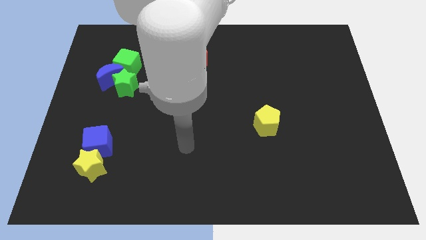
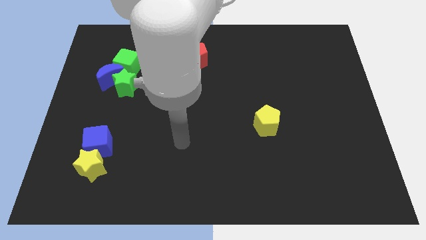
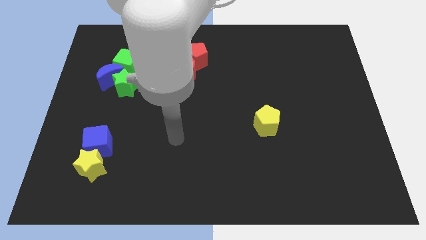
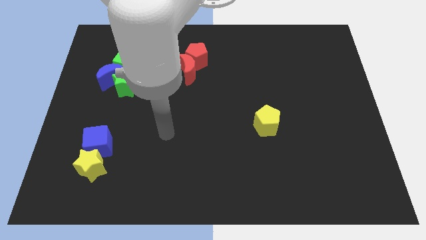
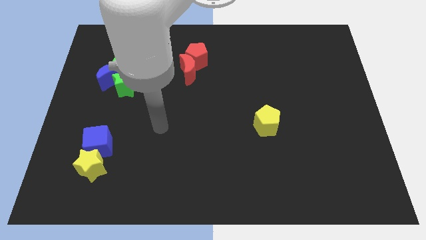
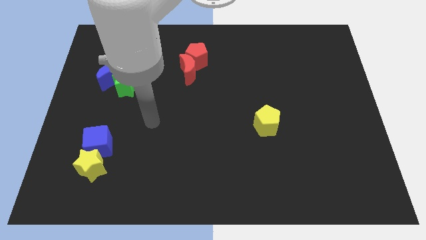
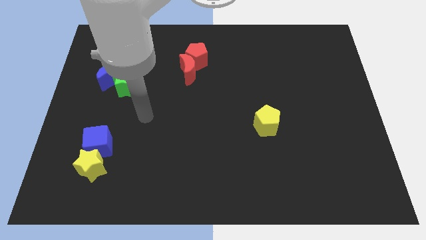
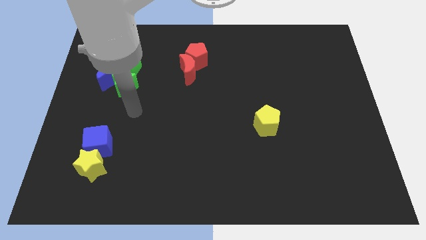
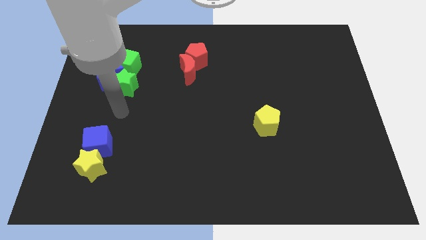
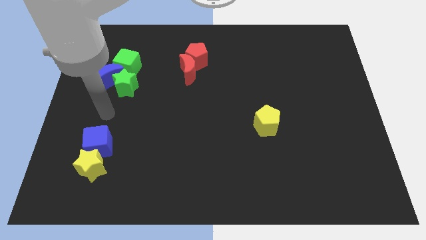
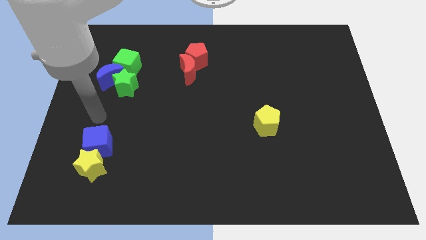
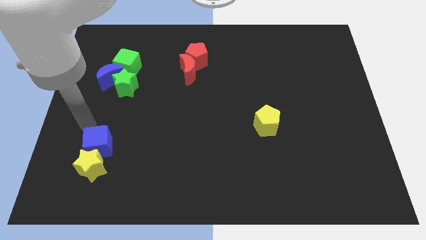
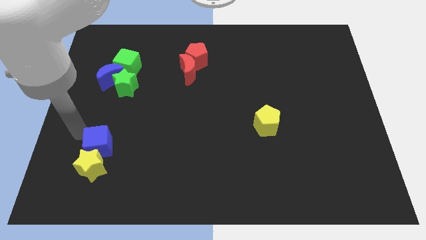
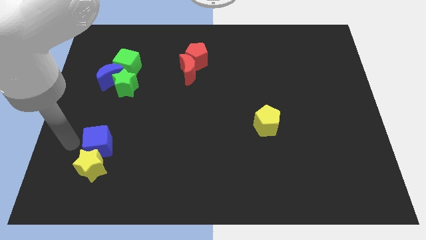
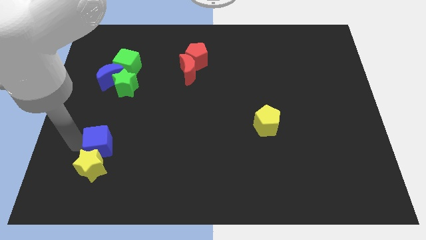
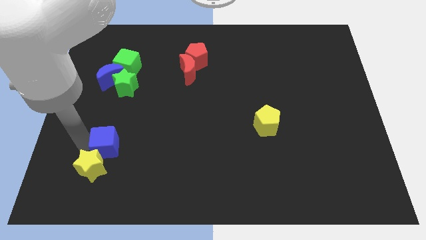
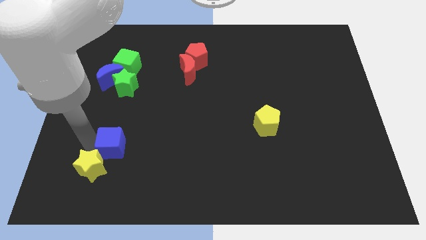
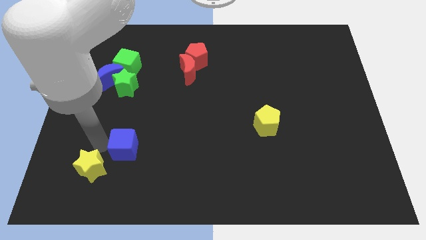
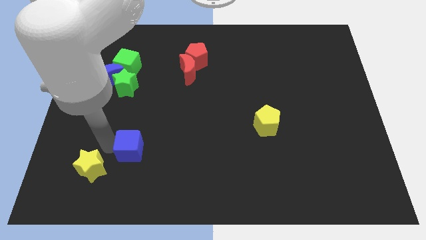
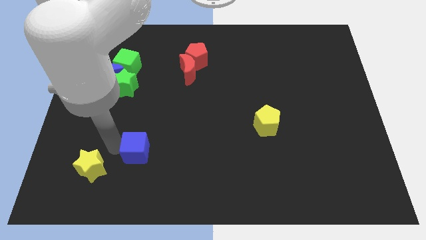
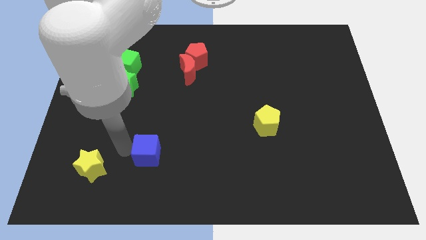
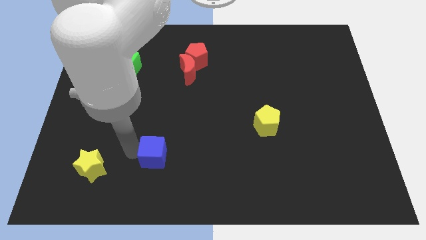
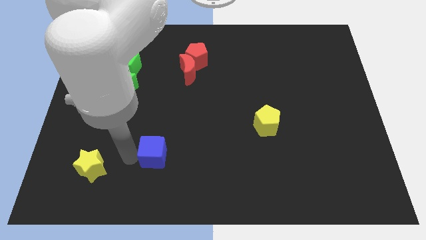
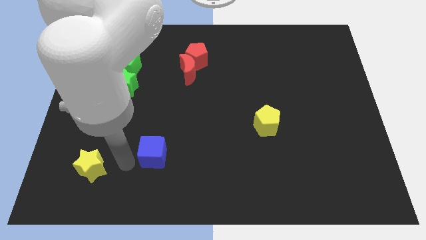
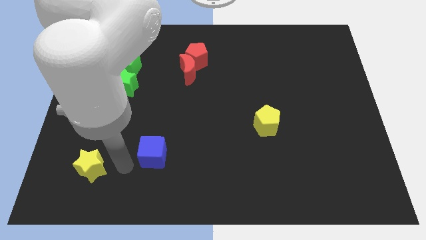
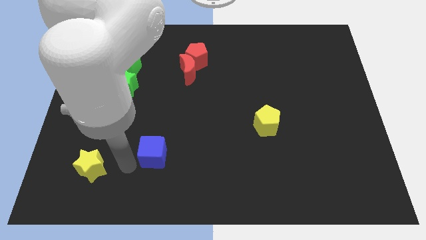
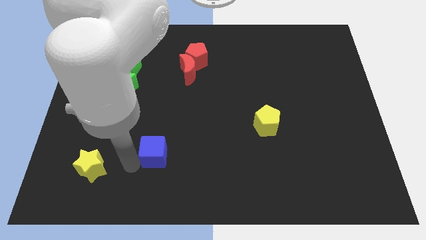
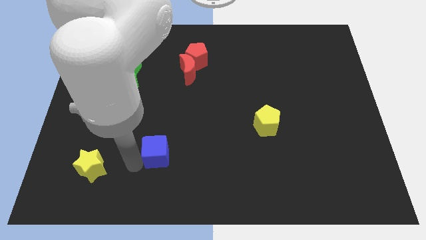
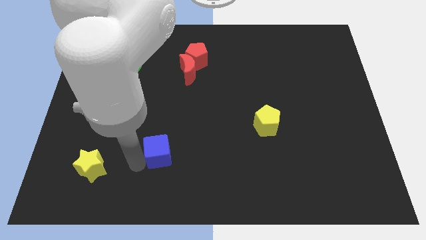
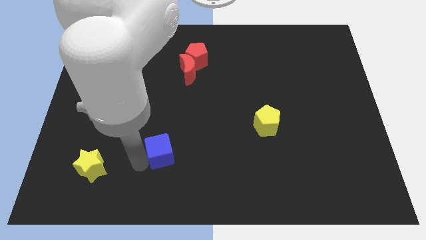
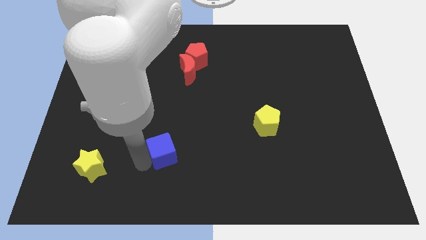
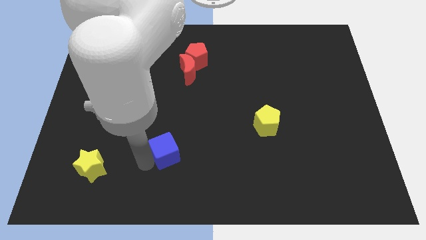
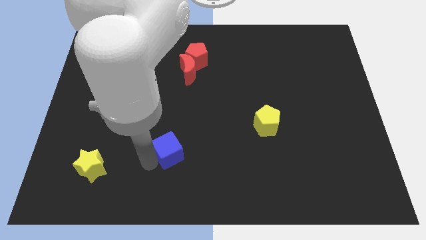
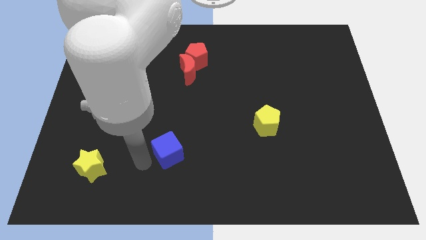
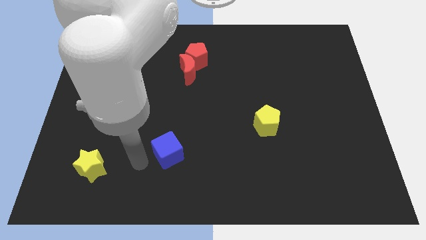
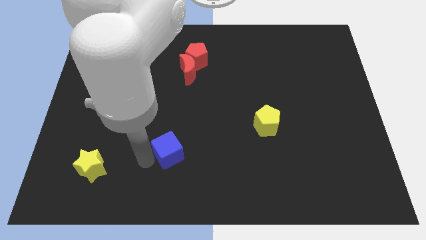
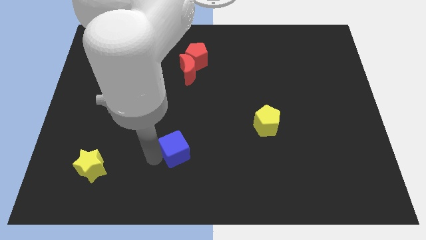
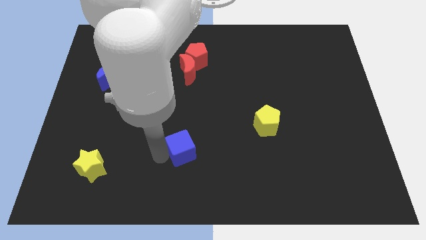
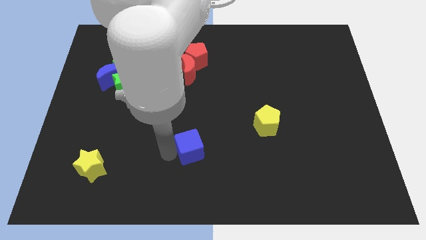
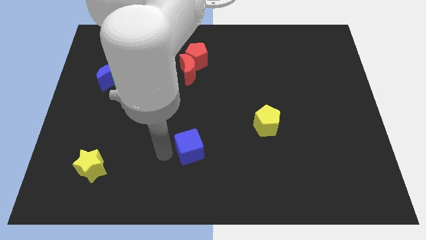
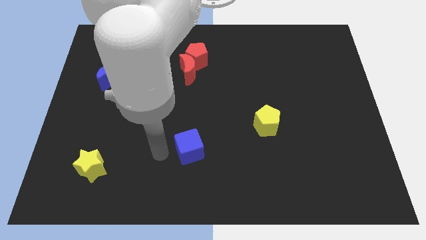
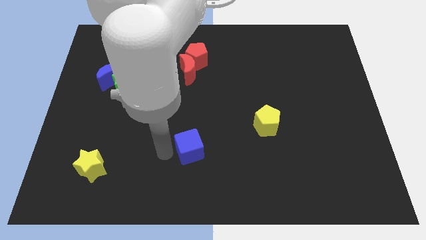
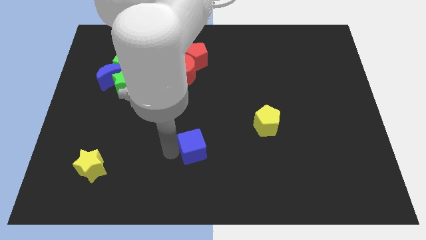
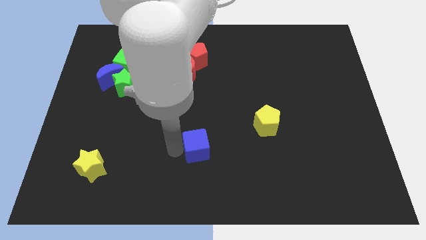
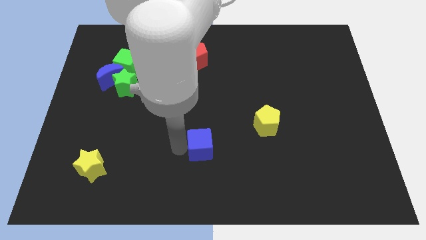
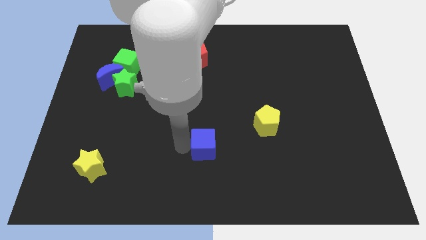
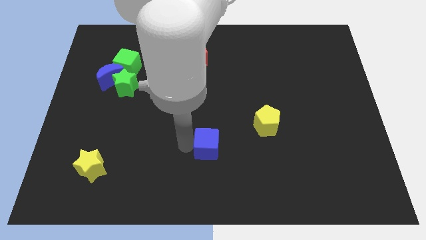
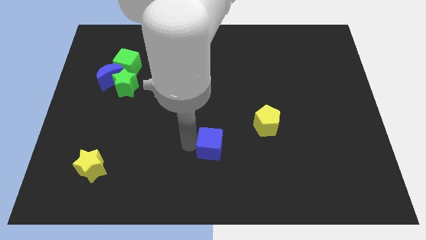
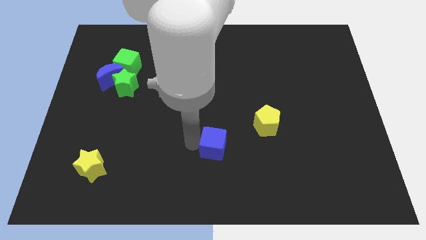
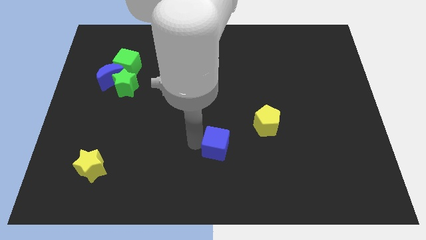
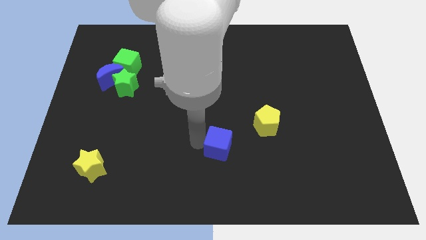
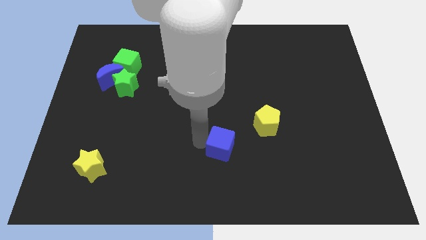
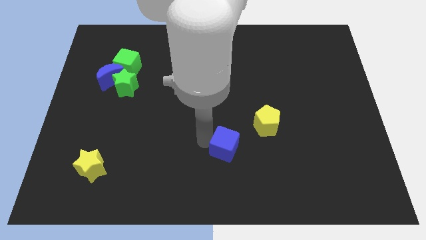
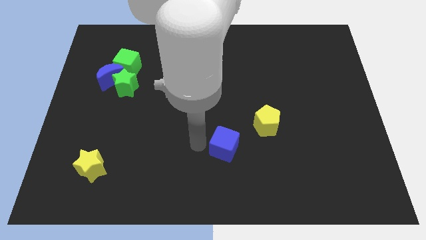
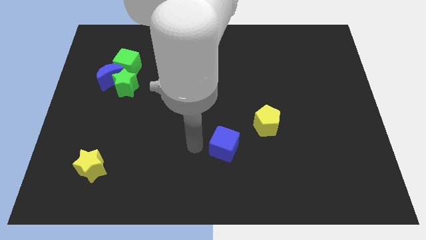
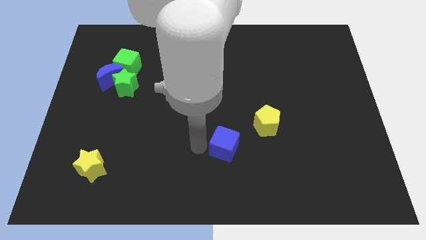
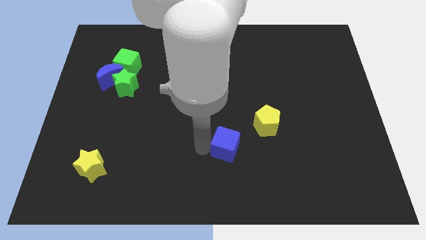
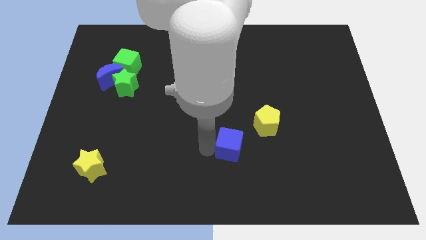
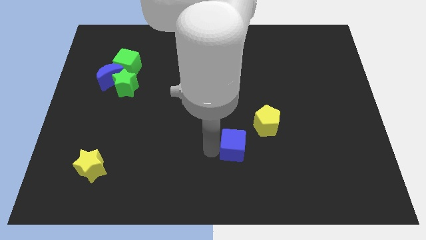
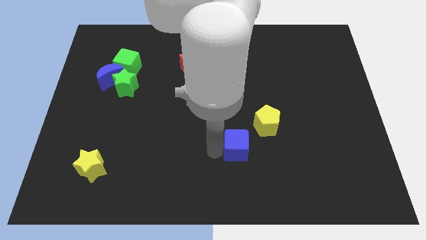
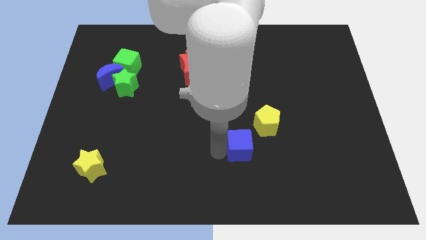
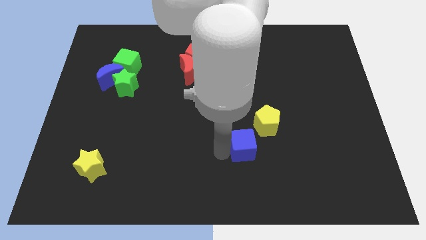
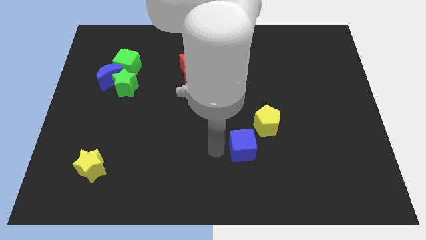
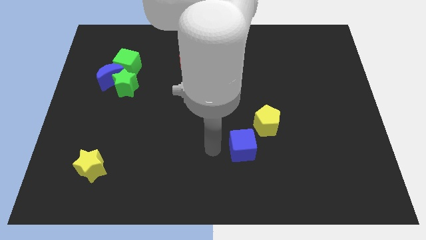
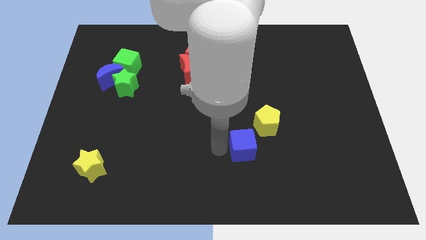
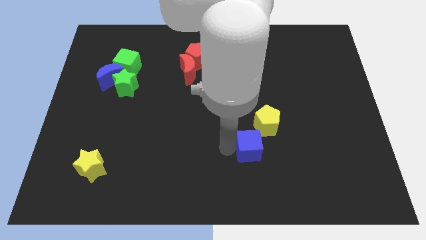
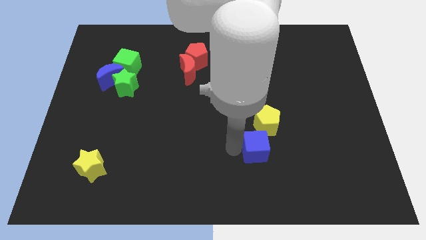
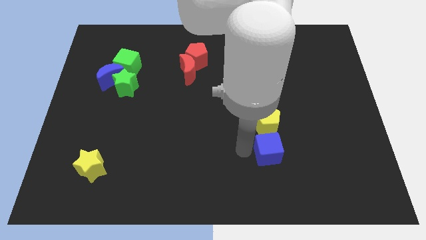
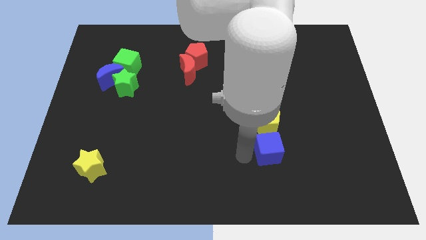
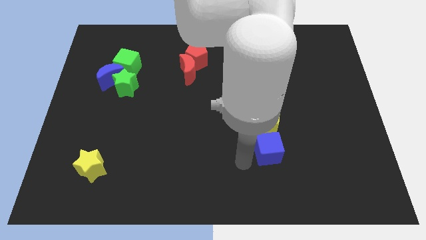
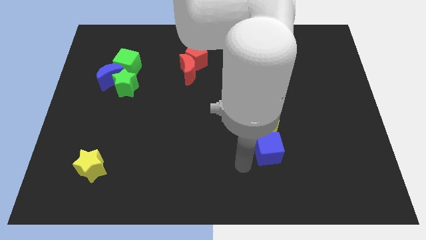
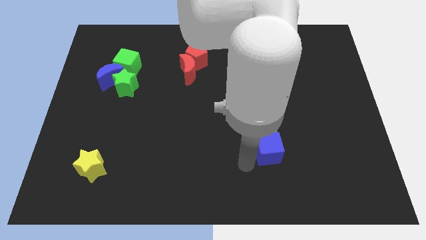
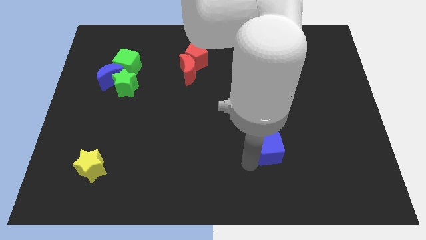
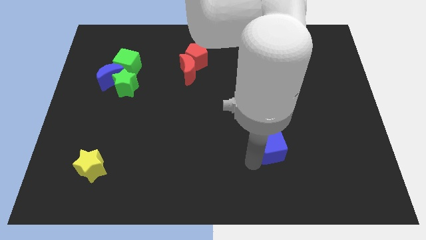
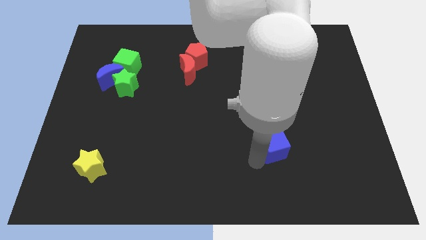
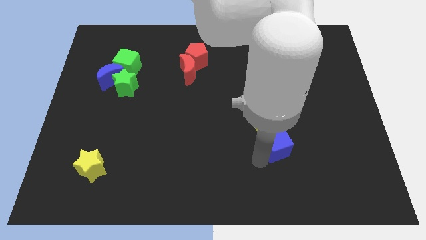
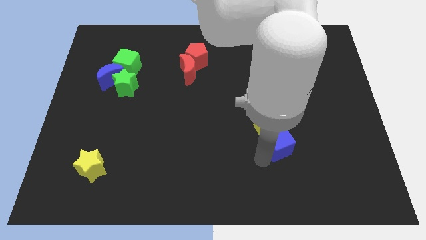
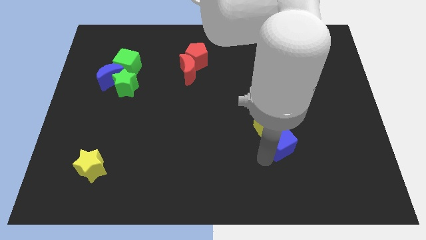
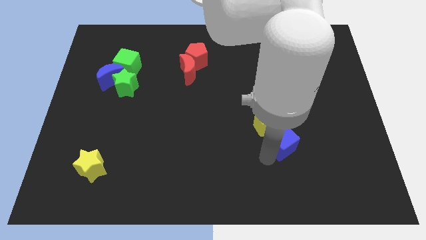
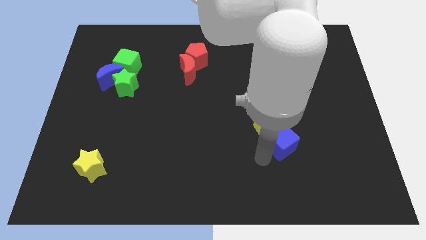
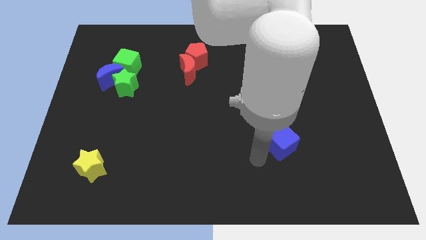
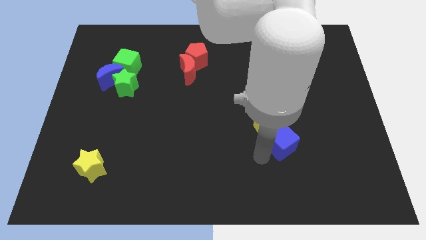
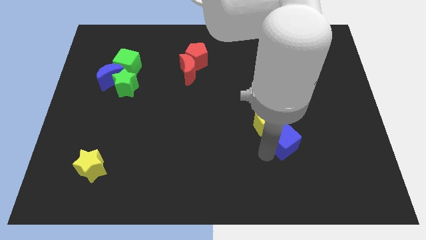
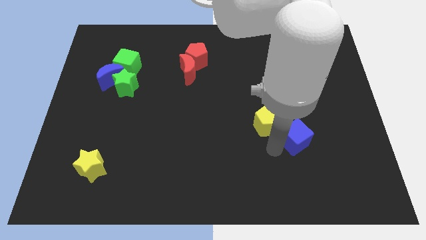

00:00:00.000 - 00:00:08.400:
move the blue cube right of the yellow pentagon
